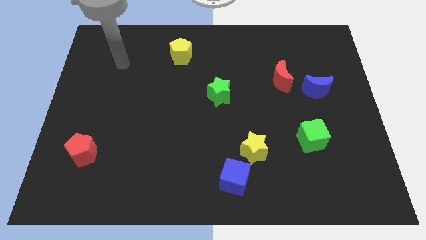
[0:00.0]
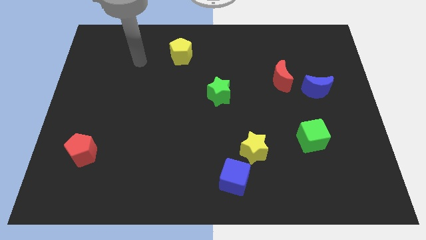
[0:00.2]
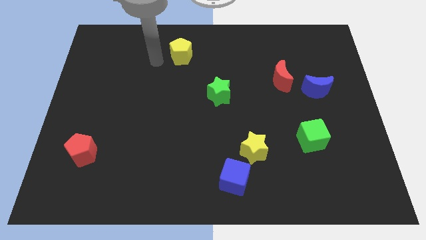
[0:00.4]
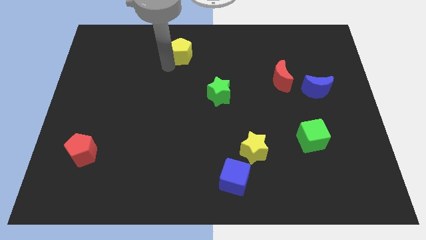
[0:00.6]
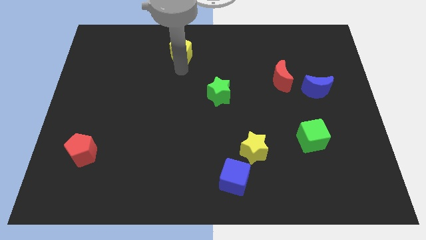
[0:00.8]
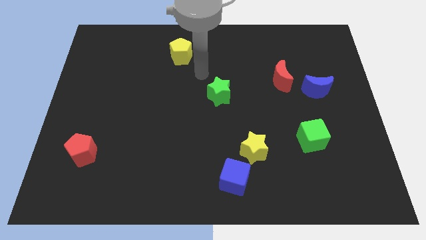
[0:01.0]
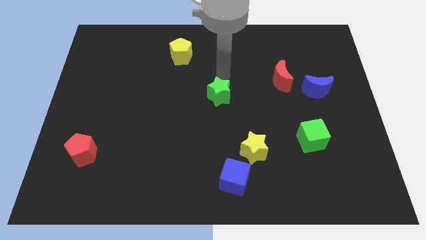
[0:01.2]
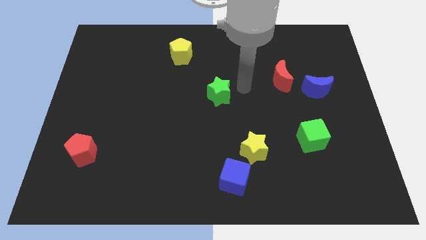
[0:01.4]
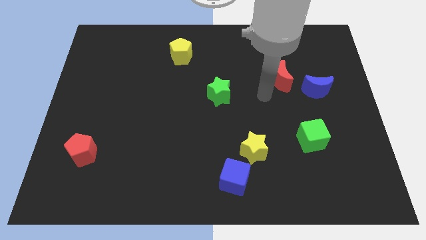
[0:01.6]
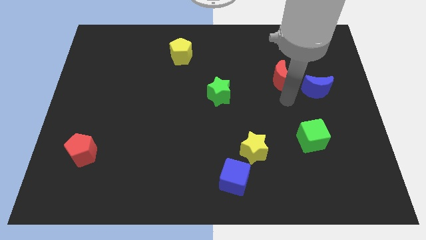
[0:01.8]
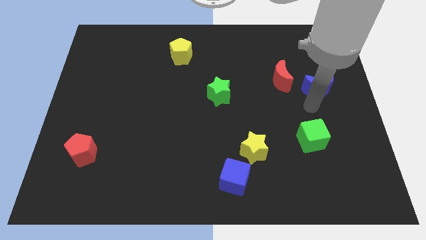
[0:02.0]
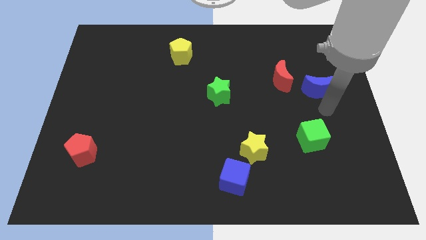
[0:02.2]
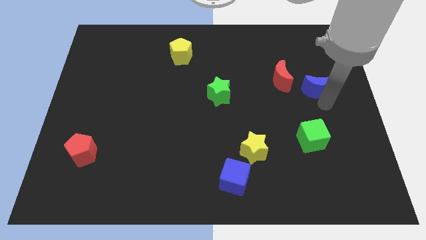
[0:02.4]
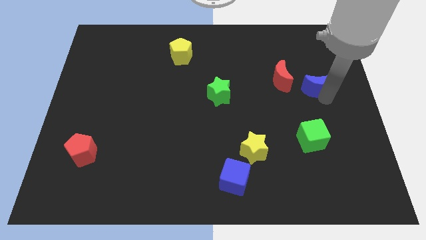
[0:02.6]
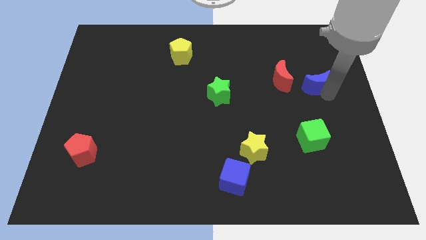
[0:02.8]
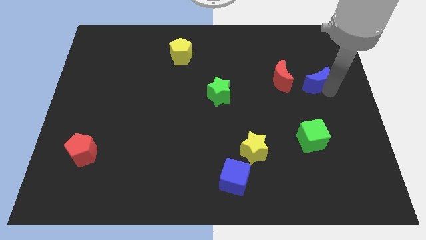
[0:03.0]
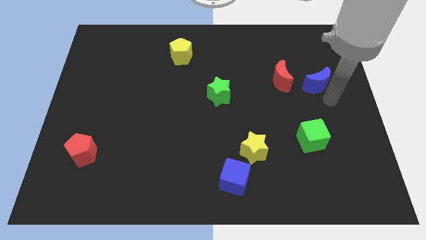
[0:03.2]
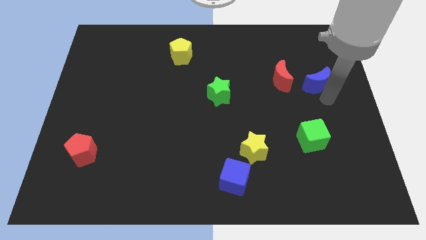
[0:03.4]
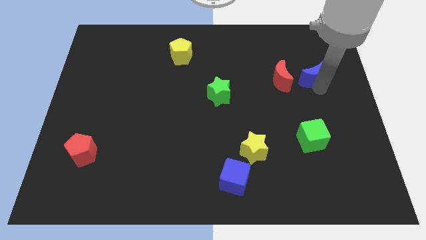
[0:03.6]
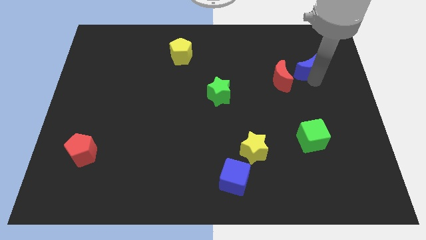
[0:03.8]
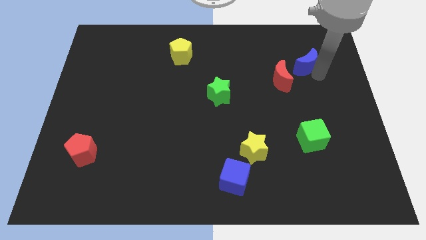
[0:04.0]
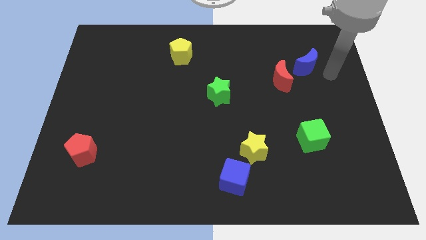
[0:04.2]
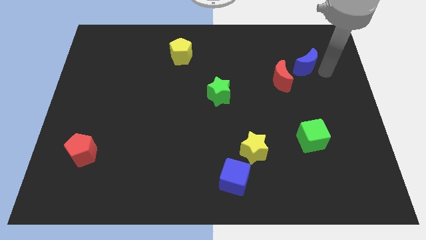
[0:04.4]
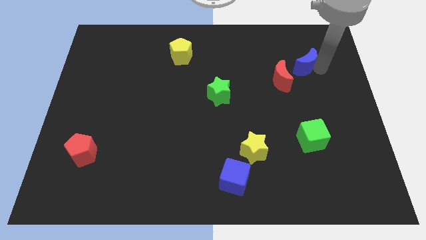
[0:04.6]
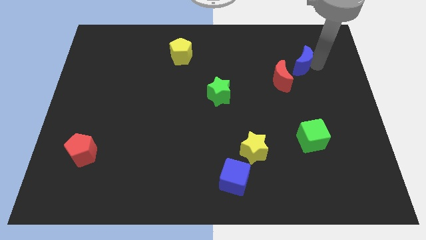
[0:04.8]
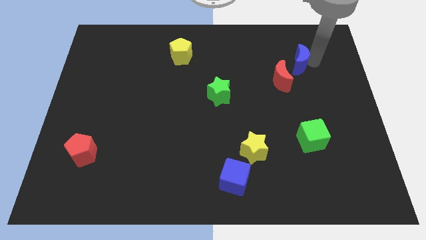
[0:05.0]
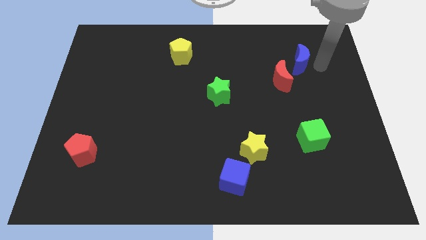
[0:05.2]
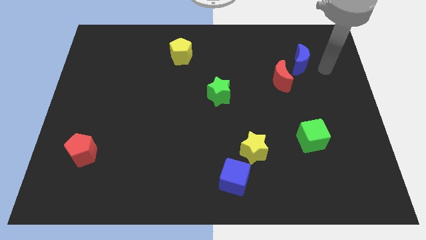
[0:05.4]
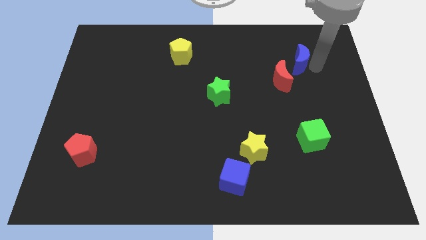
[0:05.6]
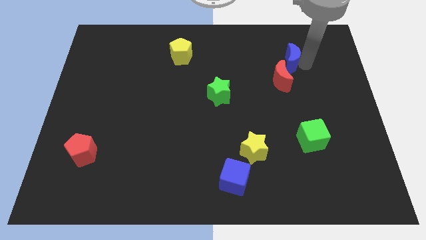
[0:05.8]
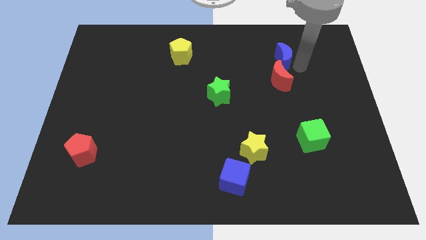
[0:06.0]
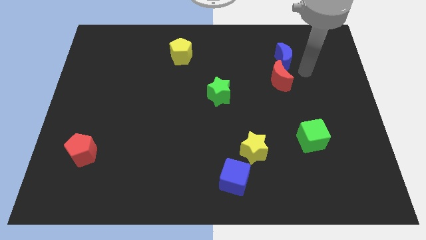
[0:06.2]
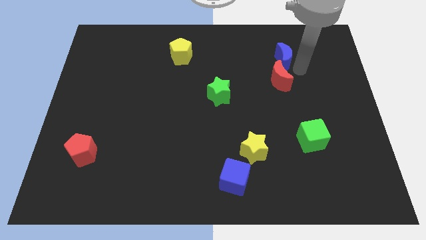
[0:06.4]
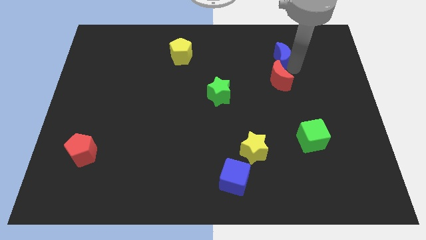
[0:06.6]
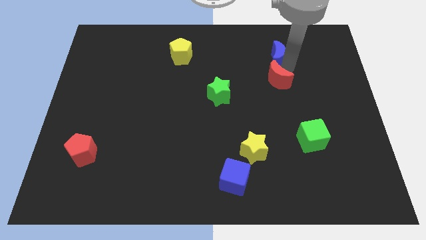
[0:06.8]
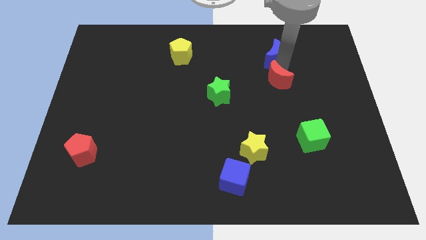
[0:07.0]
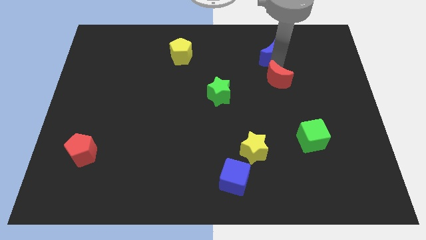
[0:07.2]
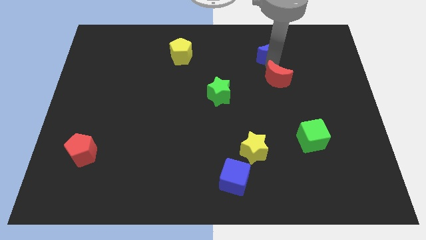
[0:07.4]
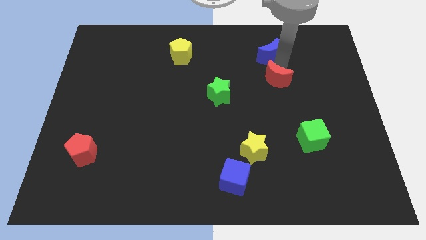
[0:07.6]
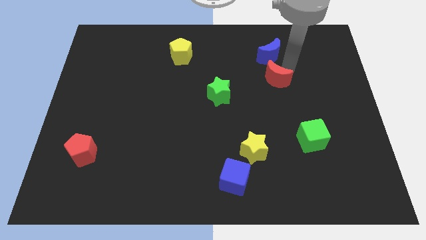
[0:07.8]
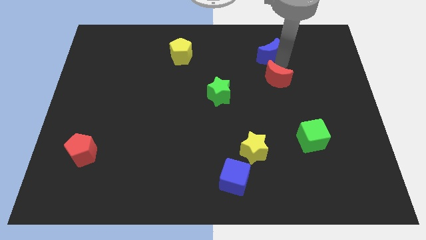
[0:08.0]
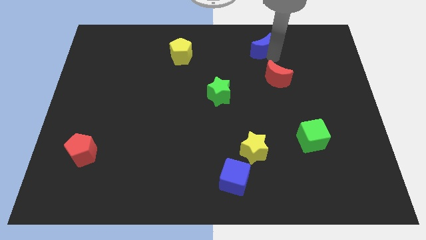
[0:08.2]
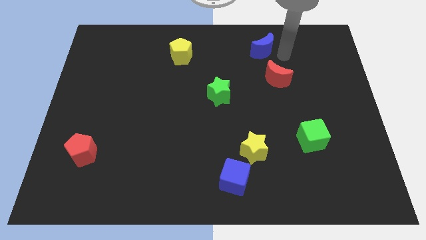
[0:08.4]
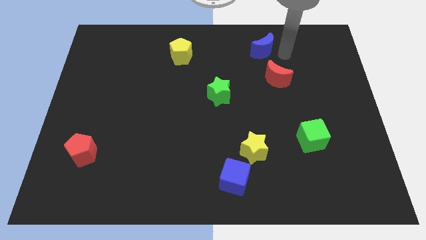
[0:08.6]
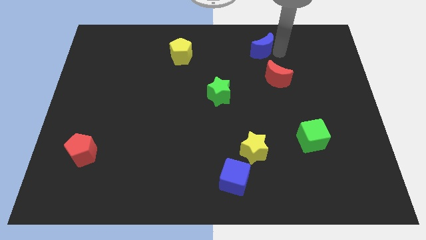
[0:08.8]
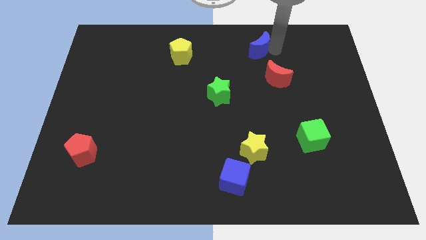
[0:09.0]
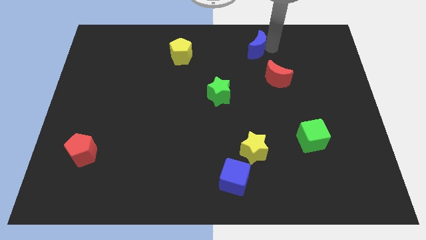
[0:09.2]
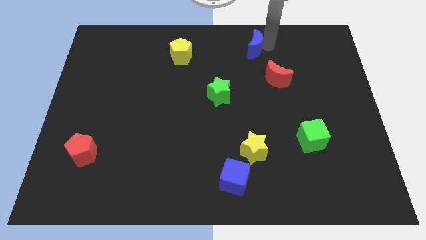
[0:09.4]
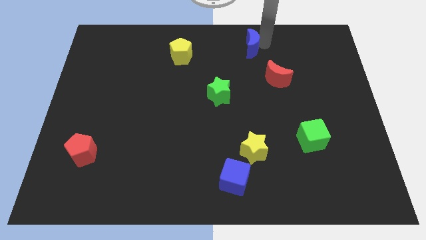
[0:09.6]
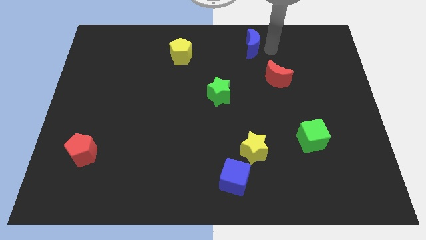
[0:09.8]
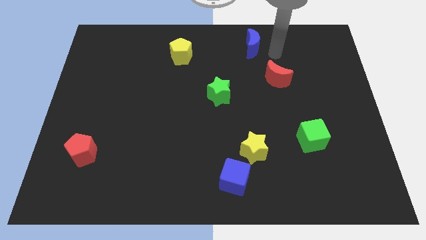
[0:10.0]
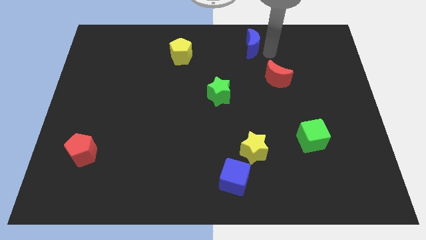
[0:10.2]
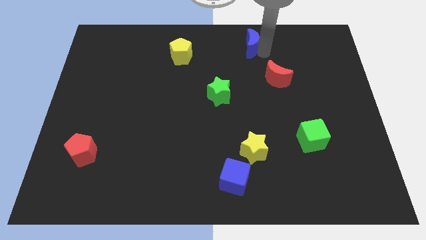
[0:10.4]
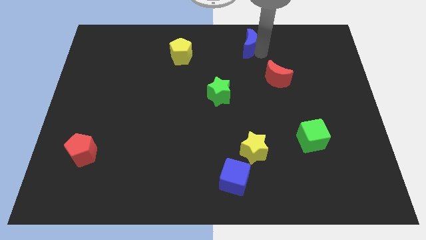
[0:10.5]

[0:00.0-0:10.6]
put the blue moon to the towards your base

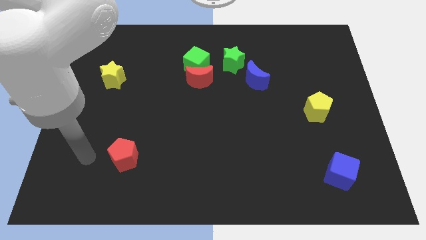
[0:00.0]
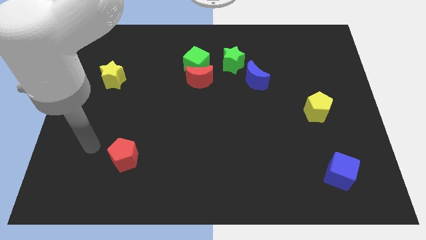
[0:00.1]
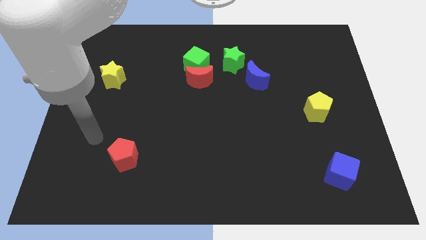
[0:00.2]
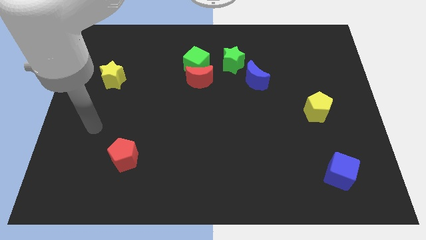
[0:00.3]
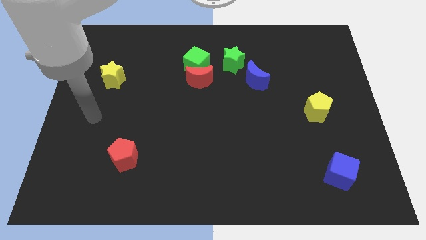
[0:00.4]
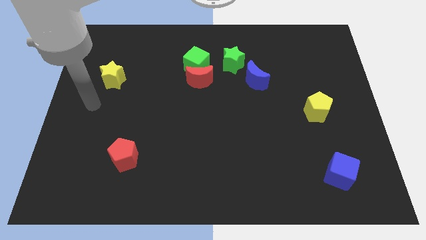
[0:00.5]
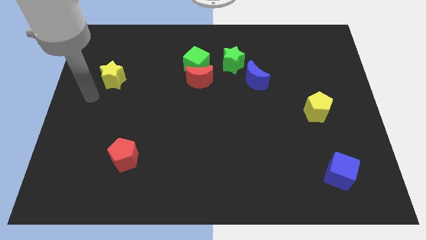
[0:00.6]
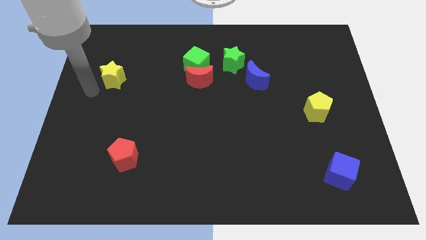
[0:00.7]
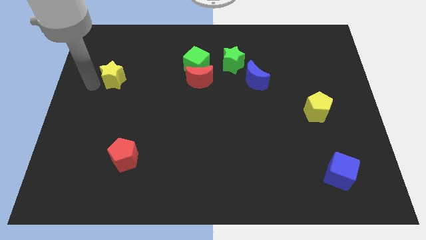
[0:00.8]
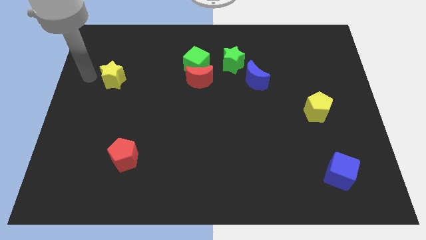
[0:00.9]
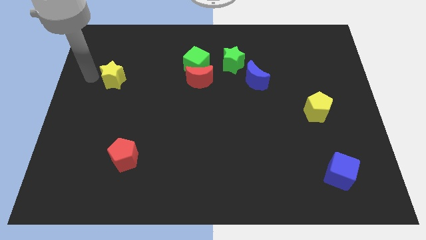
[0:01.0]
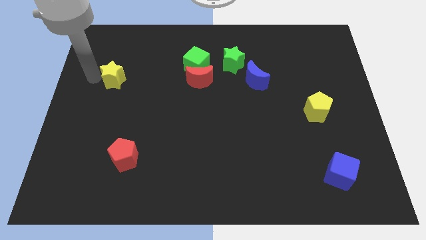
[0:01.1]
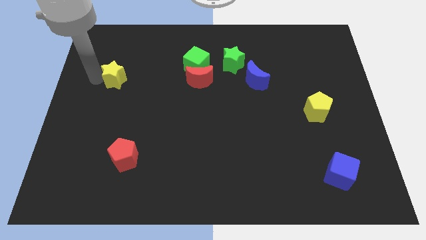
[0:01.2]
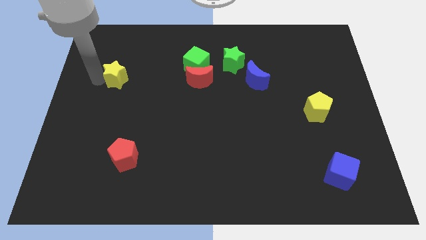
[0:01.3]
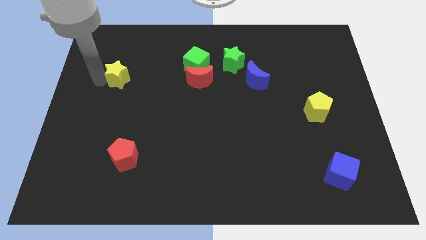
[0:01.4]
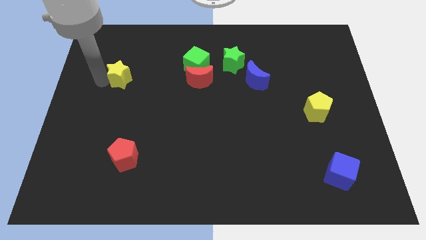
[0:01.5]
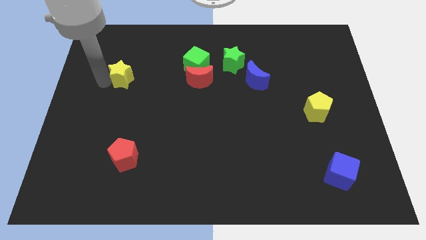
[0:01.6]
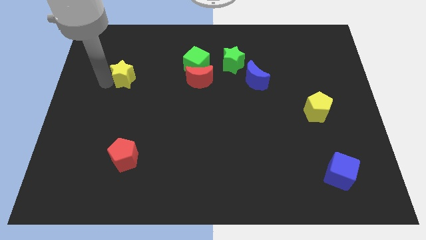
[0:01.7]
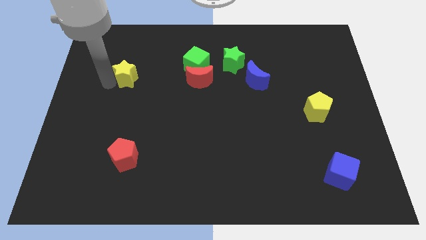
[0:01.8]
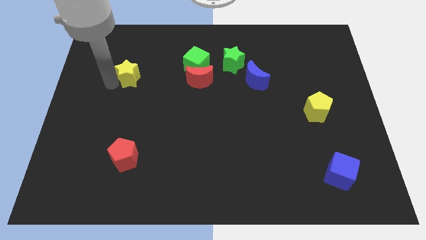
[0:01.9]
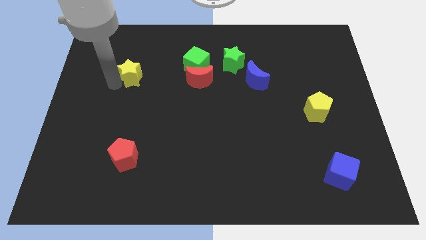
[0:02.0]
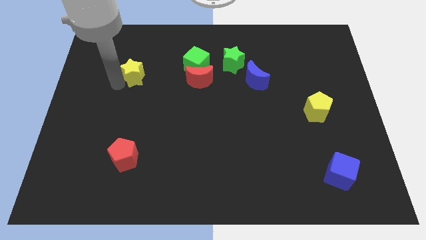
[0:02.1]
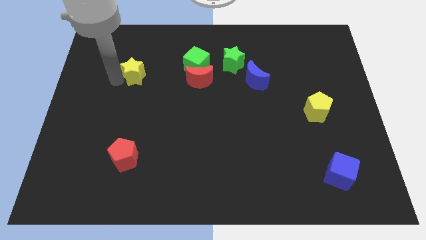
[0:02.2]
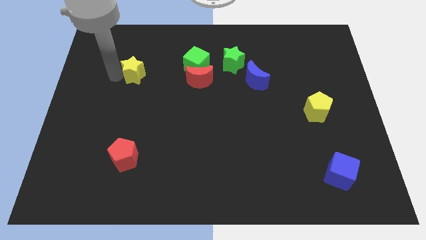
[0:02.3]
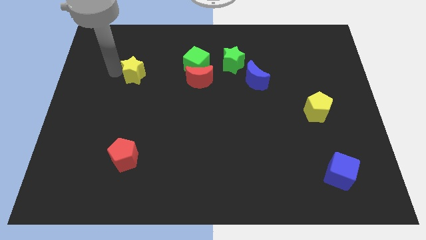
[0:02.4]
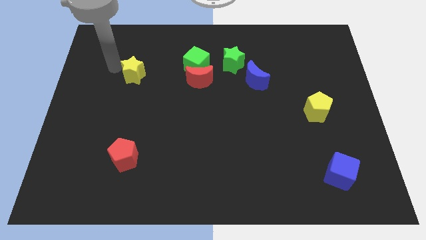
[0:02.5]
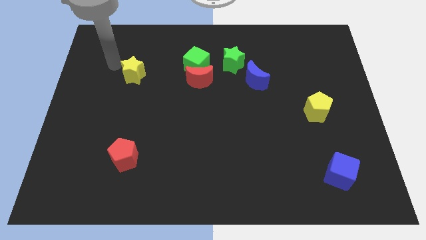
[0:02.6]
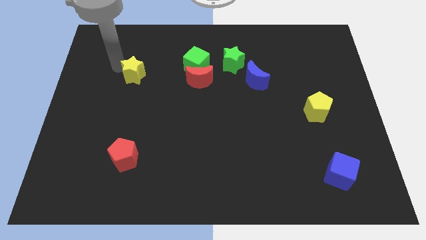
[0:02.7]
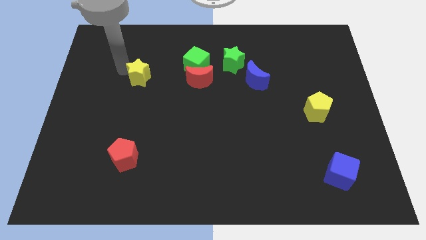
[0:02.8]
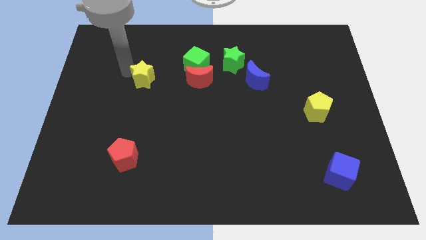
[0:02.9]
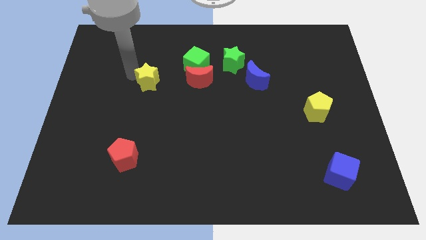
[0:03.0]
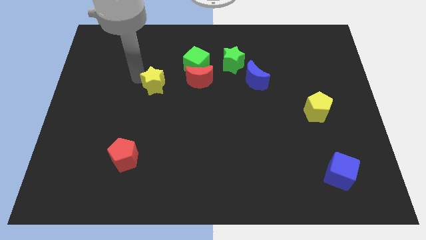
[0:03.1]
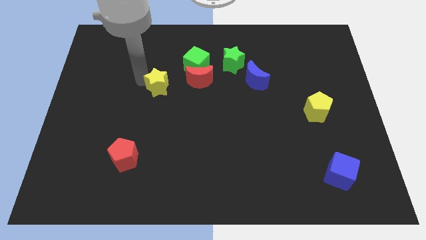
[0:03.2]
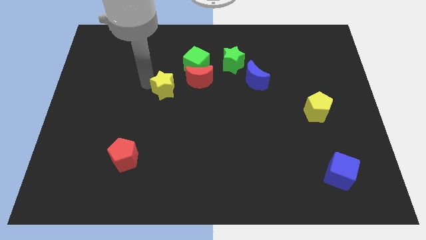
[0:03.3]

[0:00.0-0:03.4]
slide the yellow star to the middle

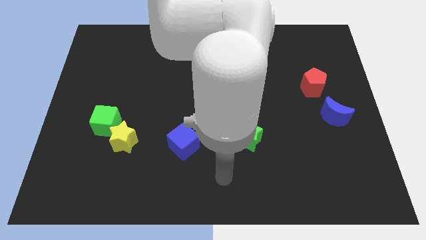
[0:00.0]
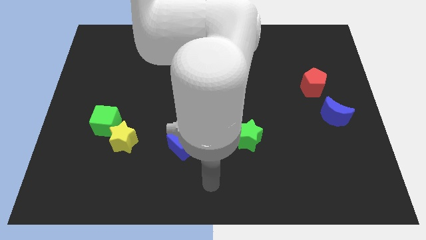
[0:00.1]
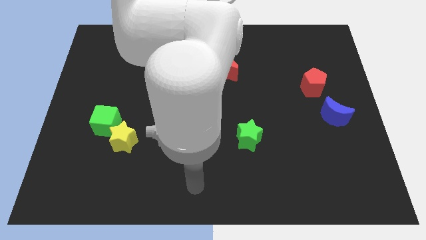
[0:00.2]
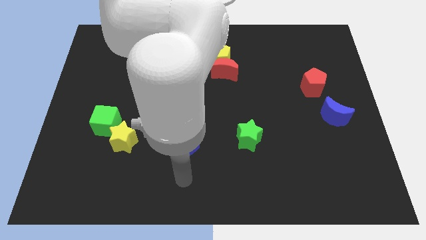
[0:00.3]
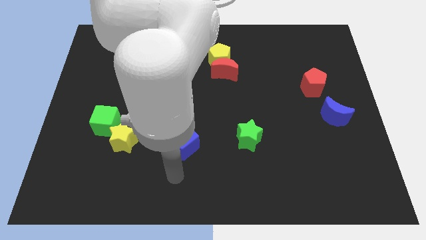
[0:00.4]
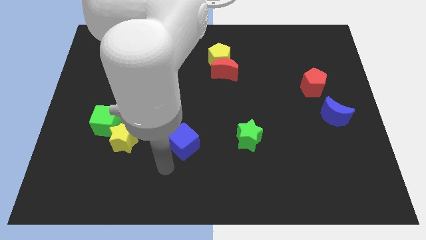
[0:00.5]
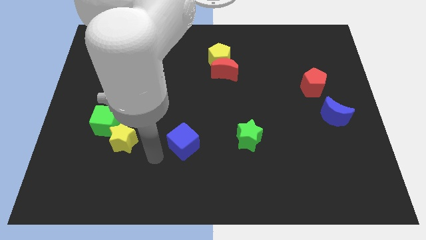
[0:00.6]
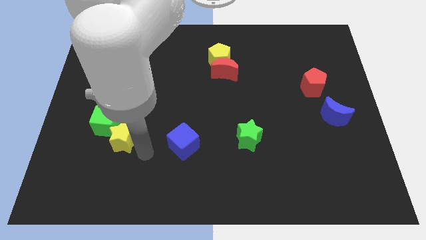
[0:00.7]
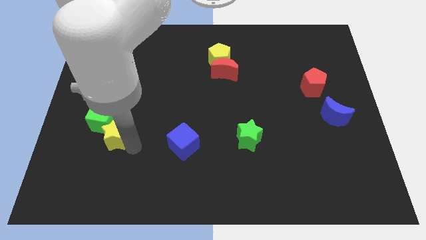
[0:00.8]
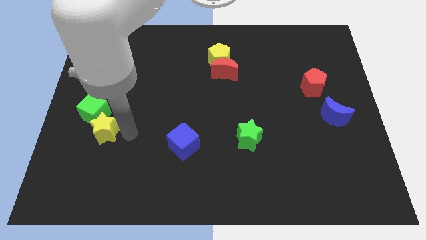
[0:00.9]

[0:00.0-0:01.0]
move the green cube to the left side of the board
